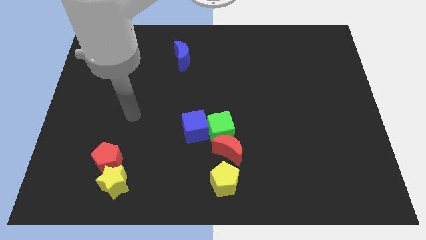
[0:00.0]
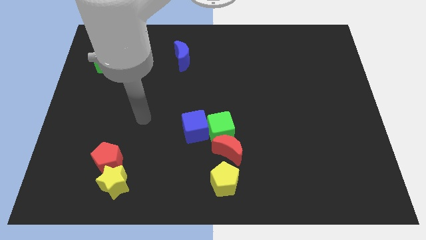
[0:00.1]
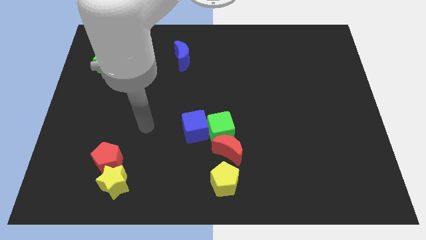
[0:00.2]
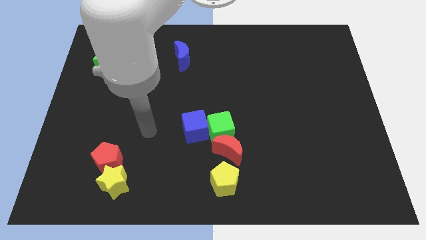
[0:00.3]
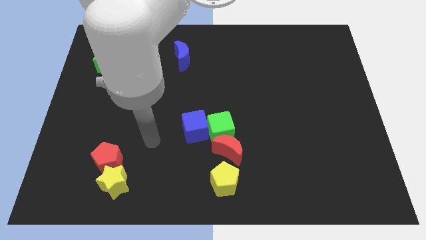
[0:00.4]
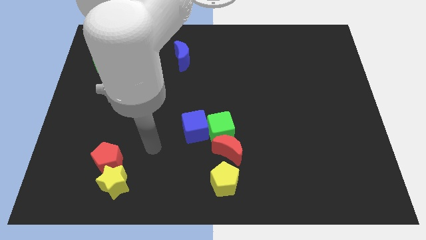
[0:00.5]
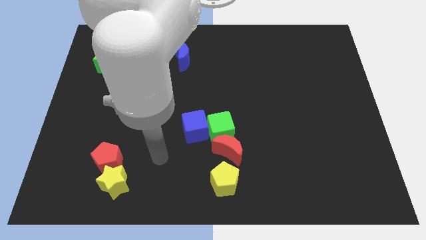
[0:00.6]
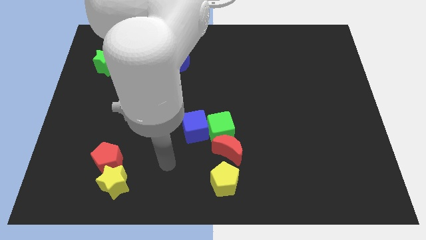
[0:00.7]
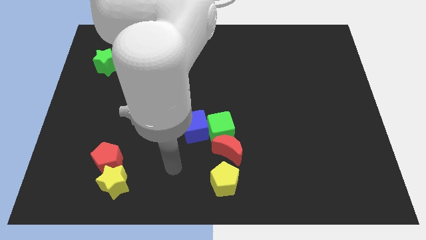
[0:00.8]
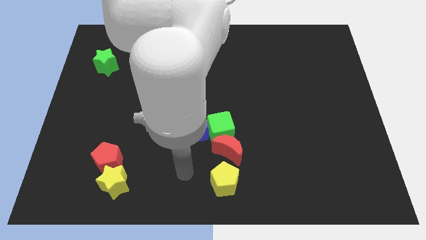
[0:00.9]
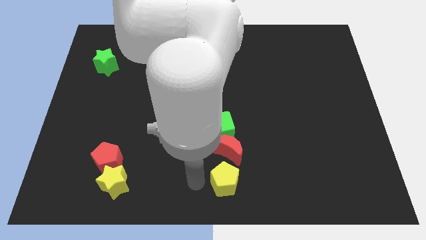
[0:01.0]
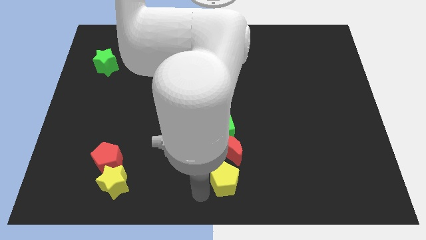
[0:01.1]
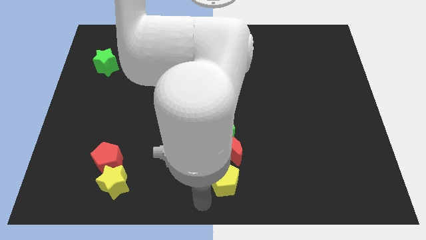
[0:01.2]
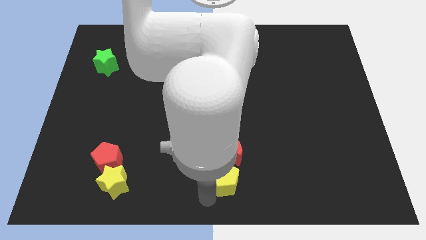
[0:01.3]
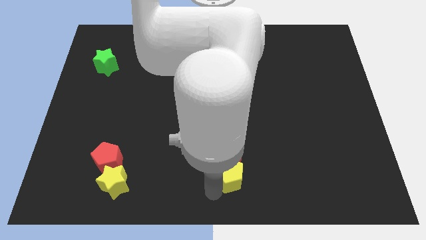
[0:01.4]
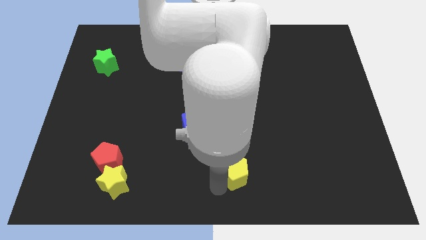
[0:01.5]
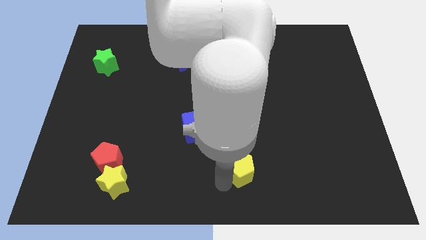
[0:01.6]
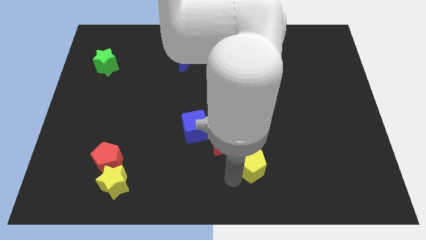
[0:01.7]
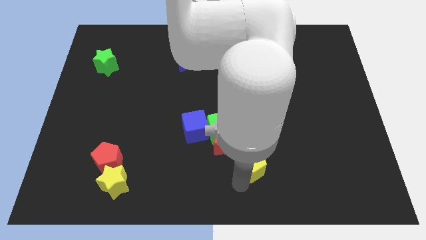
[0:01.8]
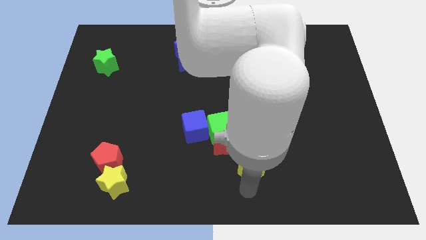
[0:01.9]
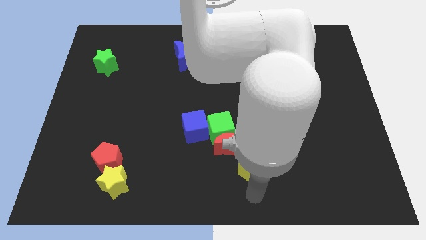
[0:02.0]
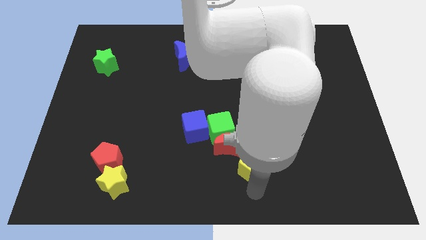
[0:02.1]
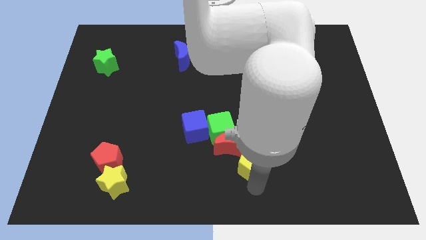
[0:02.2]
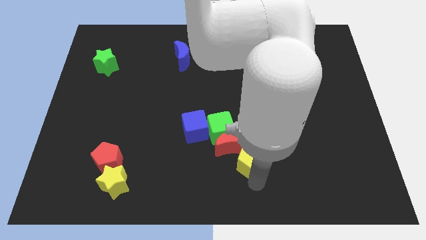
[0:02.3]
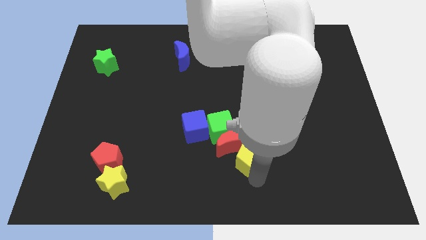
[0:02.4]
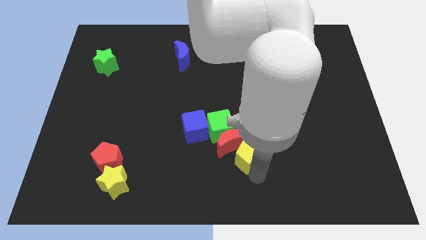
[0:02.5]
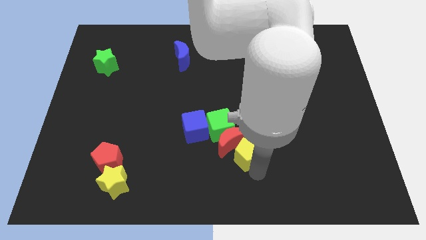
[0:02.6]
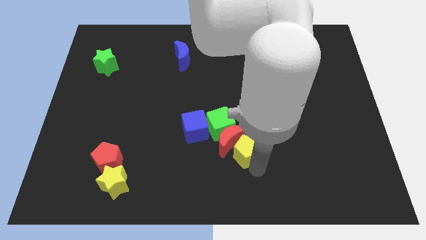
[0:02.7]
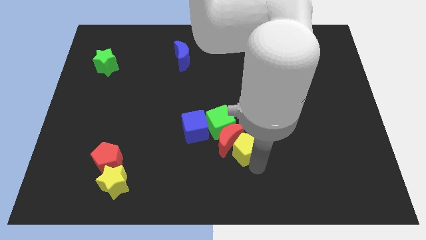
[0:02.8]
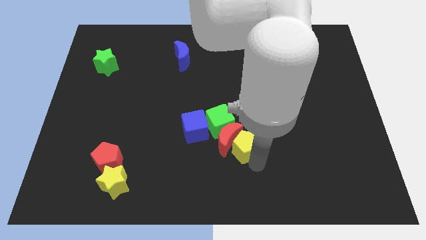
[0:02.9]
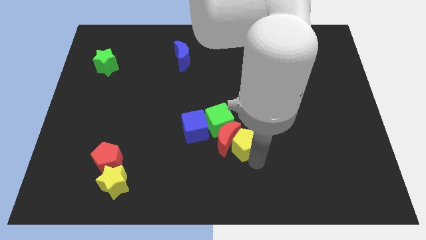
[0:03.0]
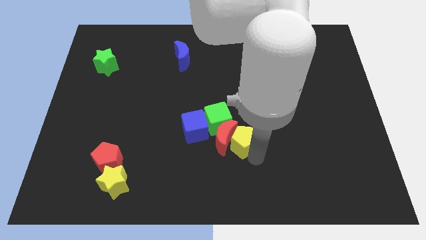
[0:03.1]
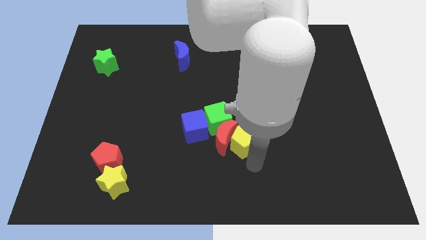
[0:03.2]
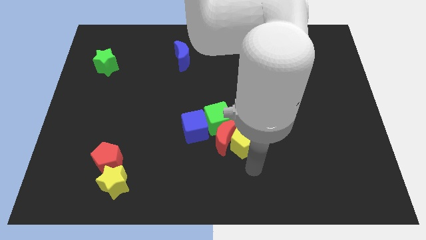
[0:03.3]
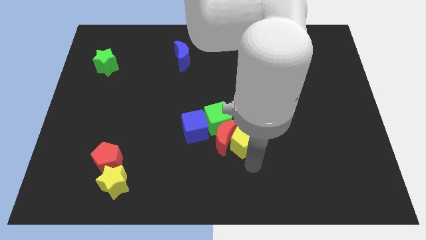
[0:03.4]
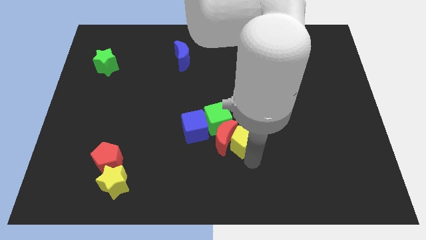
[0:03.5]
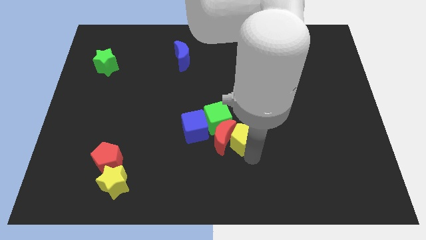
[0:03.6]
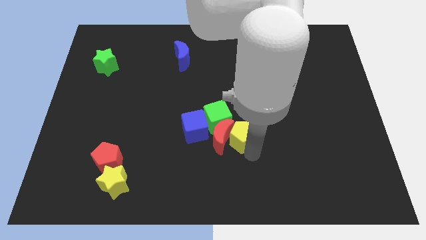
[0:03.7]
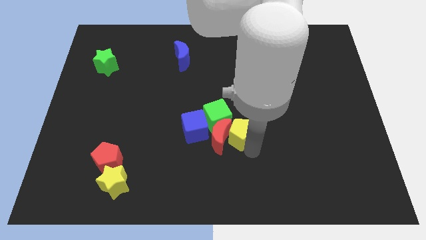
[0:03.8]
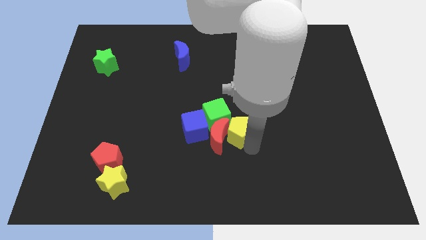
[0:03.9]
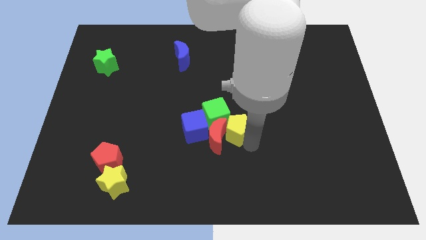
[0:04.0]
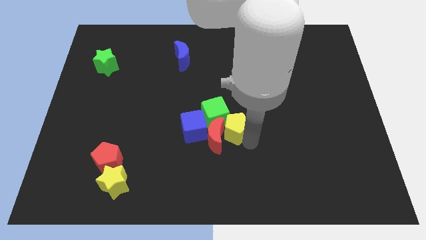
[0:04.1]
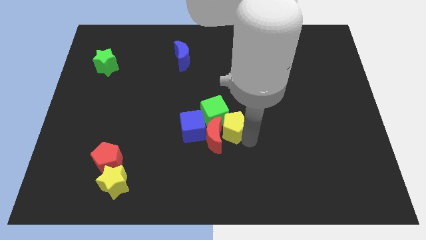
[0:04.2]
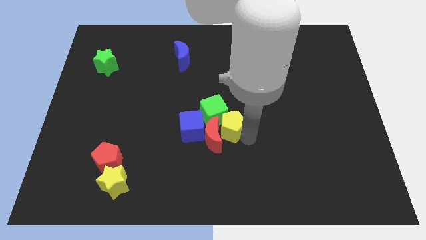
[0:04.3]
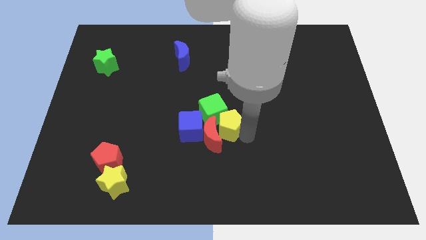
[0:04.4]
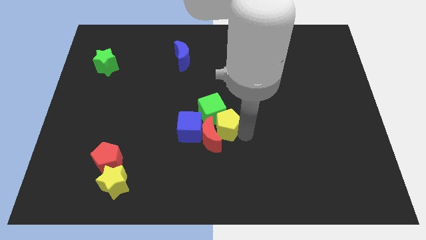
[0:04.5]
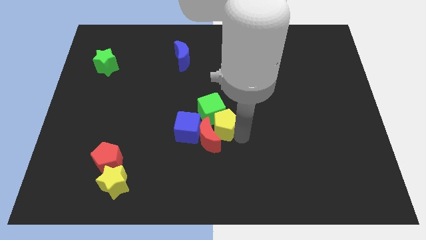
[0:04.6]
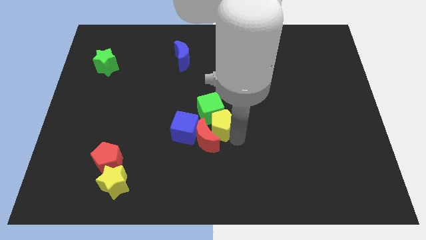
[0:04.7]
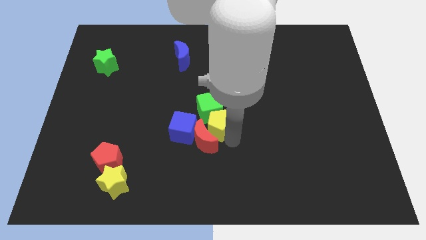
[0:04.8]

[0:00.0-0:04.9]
push the yellow pentagon to the top right of the blue cube

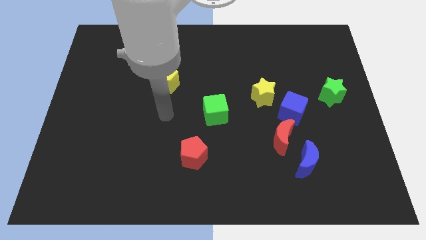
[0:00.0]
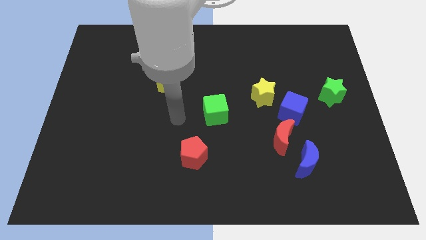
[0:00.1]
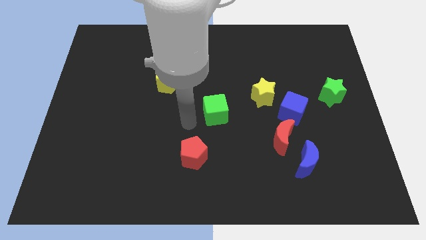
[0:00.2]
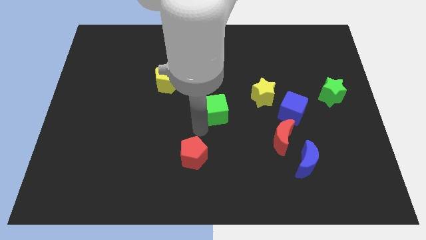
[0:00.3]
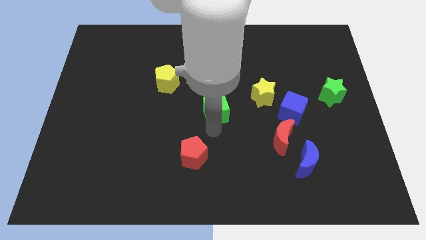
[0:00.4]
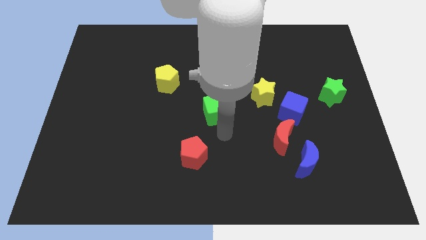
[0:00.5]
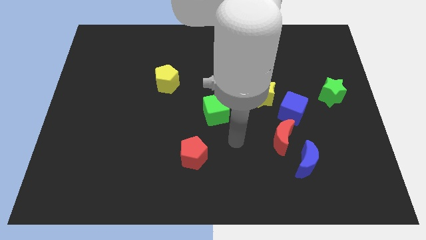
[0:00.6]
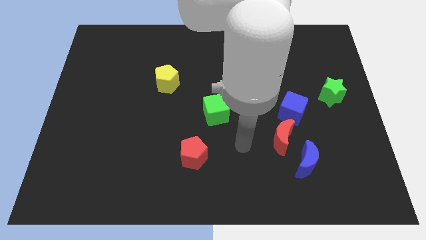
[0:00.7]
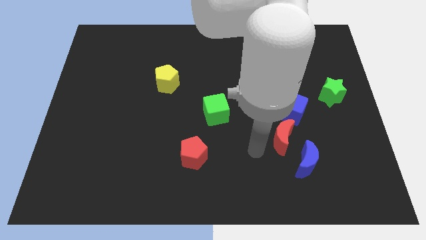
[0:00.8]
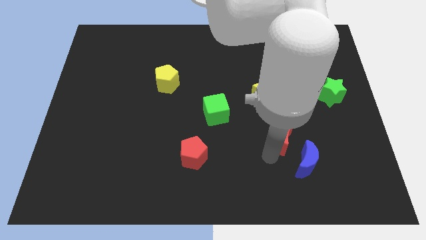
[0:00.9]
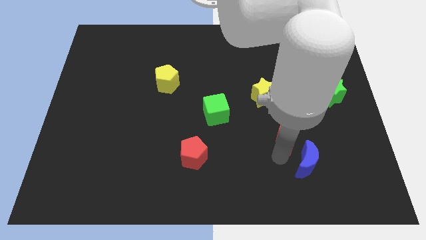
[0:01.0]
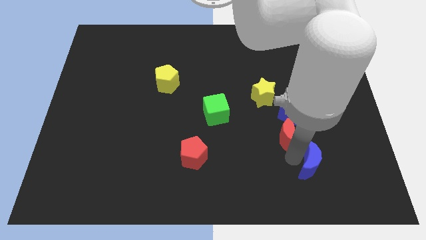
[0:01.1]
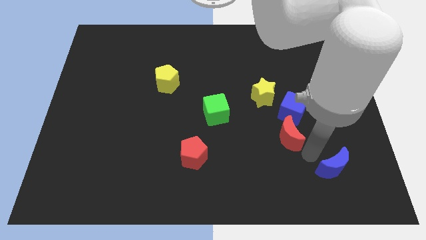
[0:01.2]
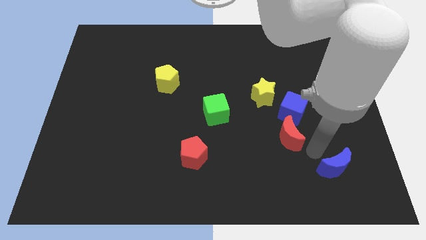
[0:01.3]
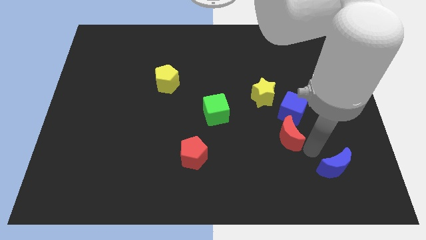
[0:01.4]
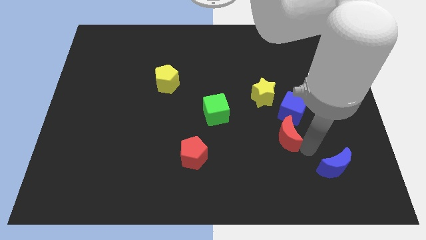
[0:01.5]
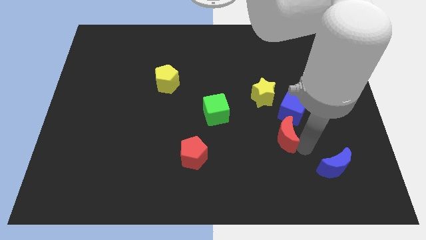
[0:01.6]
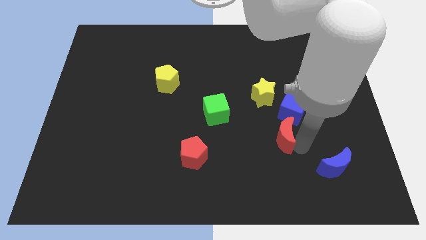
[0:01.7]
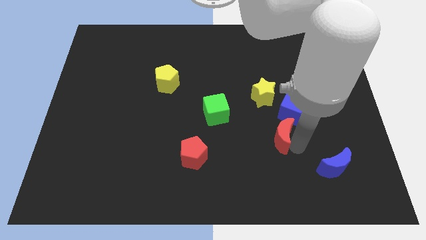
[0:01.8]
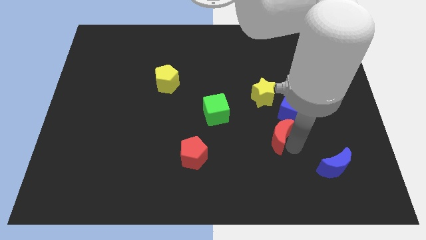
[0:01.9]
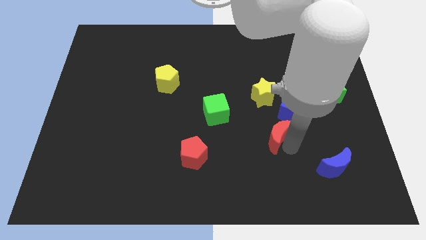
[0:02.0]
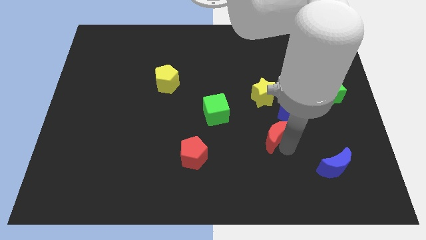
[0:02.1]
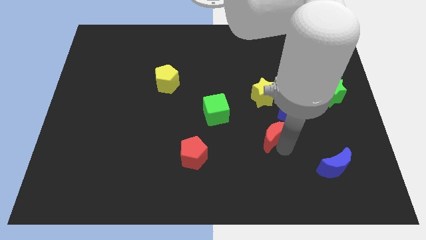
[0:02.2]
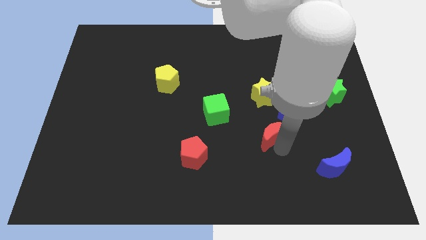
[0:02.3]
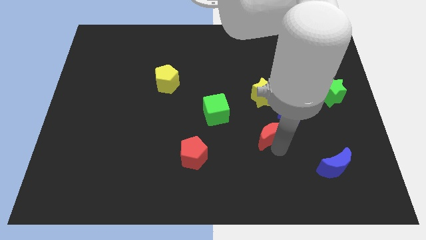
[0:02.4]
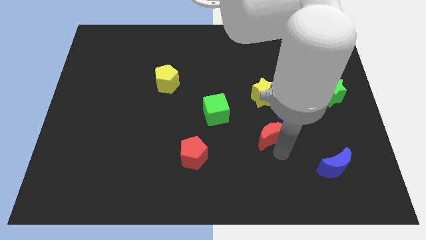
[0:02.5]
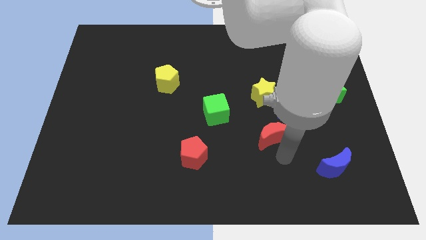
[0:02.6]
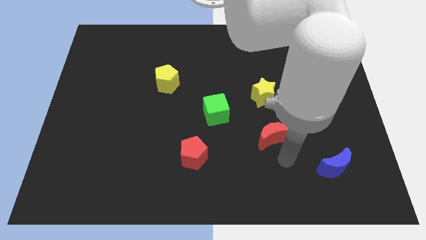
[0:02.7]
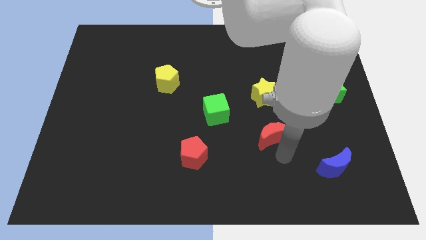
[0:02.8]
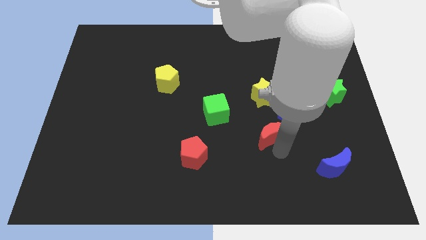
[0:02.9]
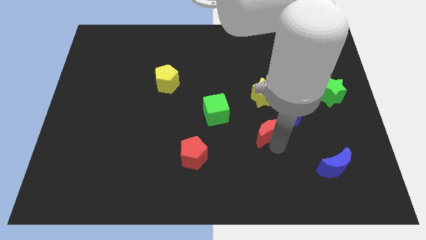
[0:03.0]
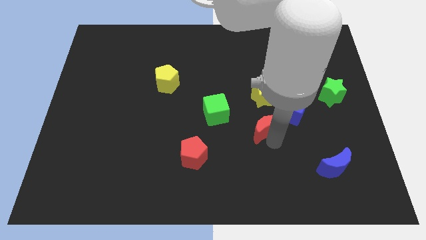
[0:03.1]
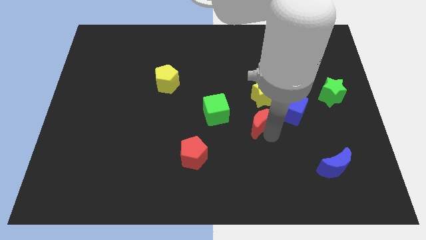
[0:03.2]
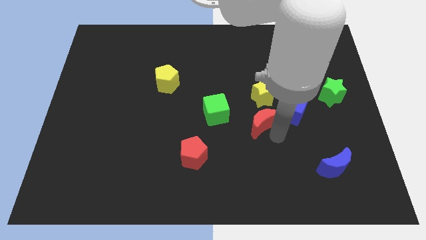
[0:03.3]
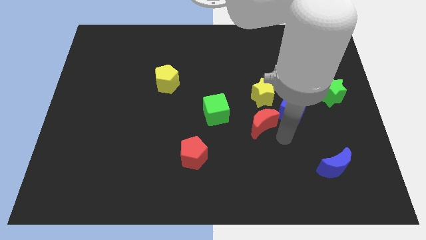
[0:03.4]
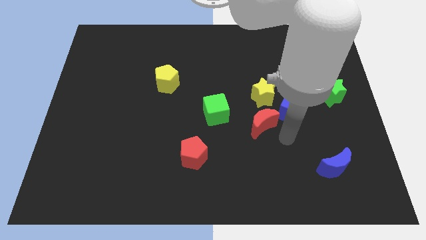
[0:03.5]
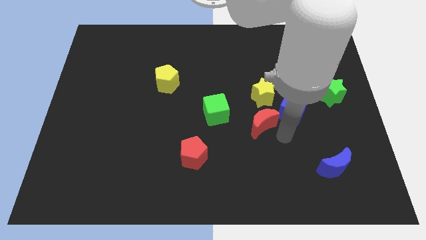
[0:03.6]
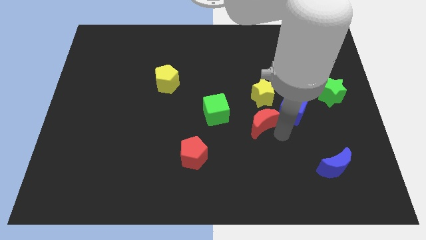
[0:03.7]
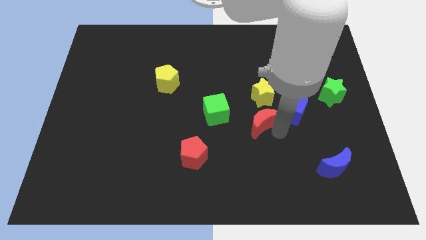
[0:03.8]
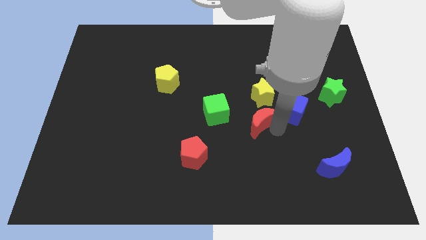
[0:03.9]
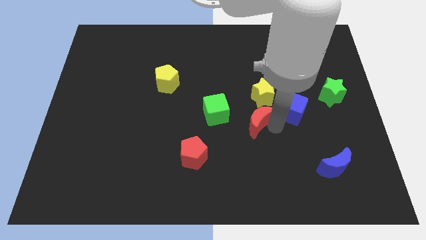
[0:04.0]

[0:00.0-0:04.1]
slide the red moon to the bottom left of the yellow star
